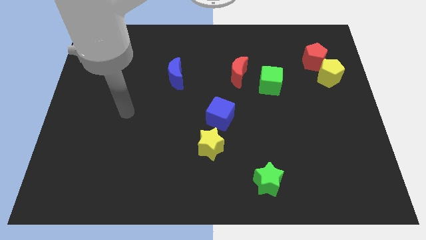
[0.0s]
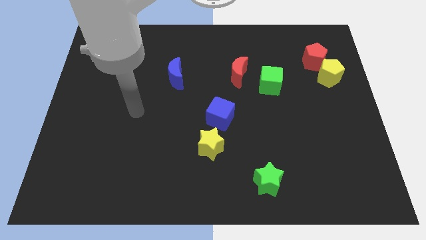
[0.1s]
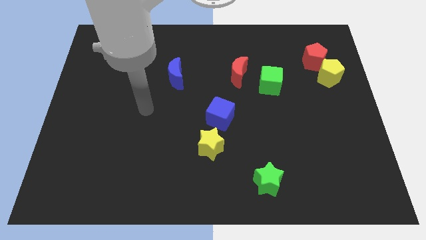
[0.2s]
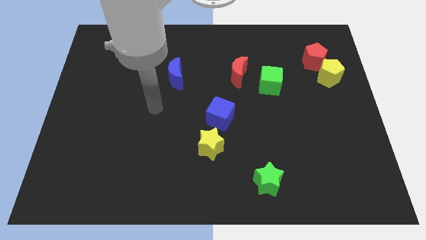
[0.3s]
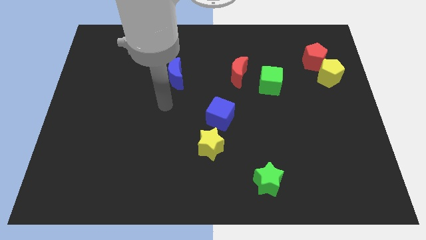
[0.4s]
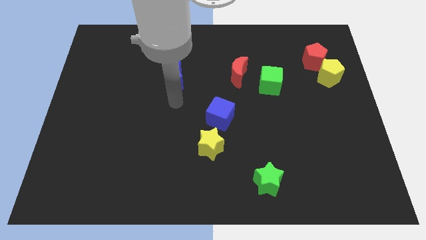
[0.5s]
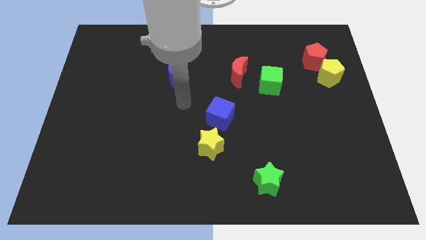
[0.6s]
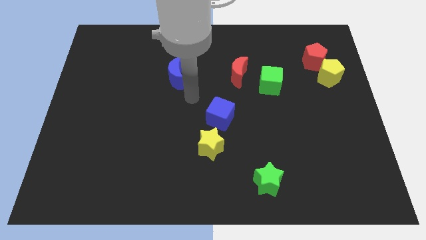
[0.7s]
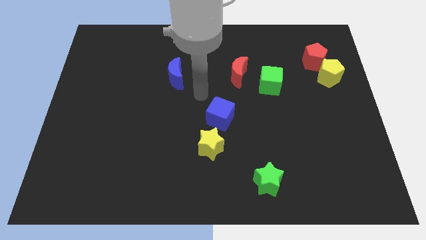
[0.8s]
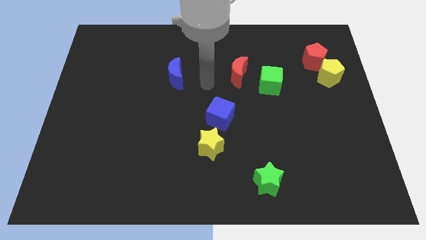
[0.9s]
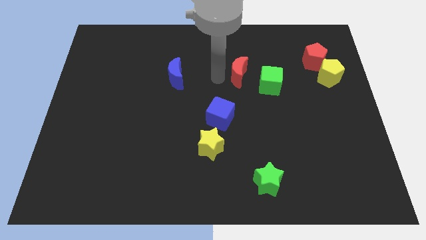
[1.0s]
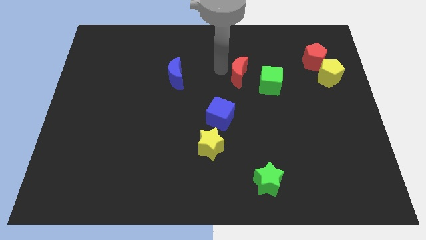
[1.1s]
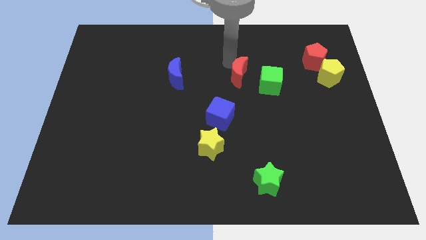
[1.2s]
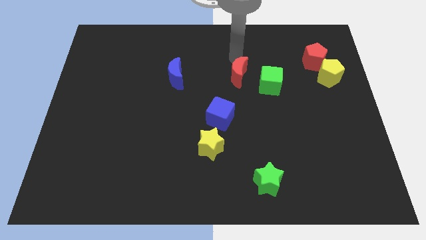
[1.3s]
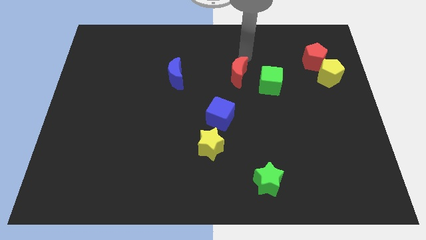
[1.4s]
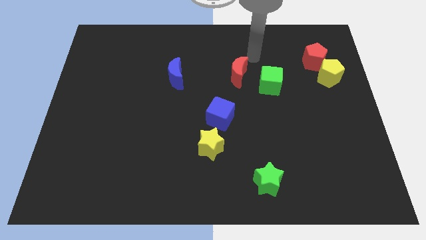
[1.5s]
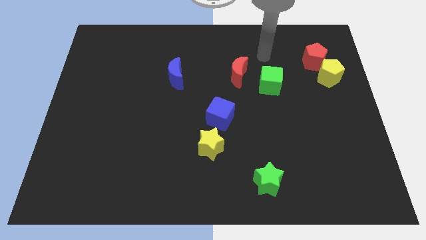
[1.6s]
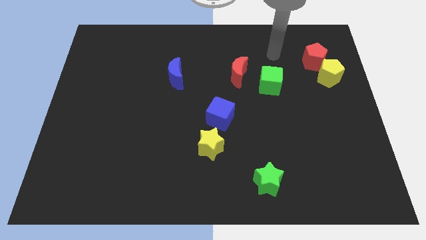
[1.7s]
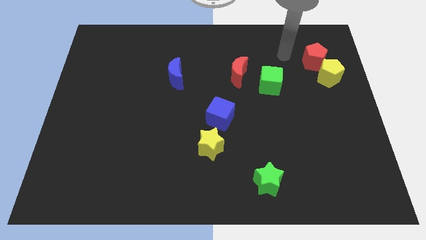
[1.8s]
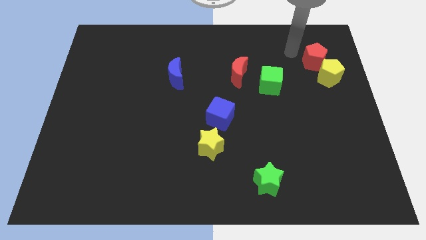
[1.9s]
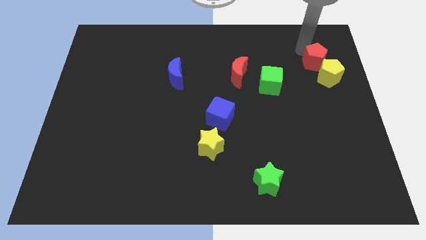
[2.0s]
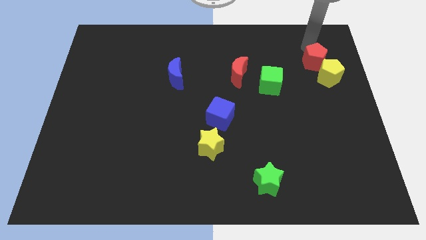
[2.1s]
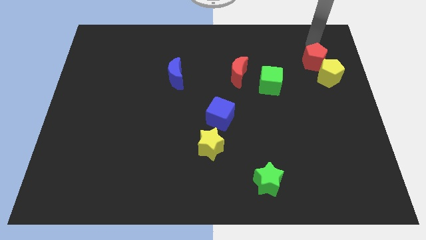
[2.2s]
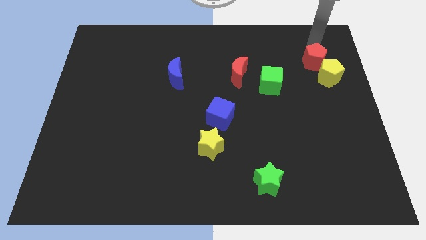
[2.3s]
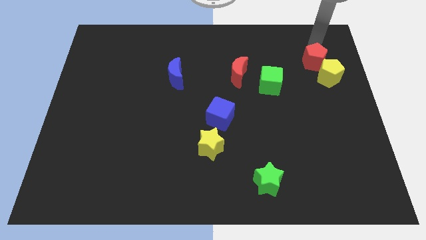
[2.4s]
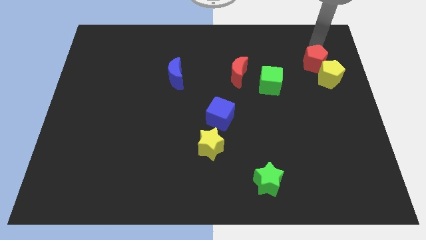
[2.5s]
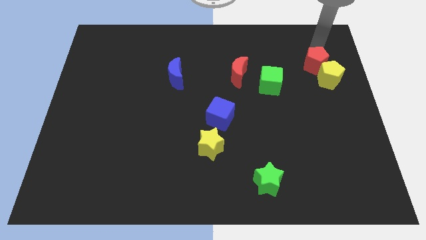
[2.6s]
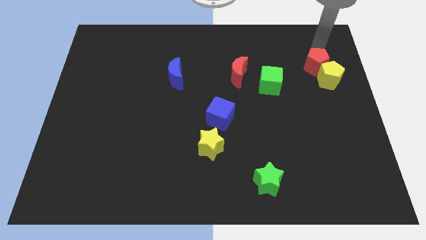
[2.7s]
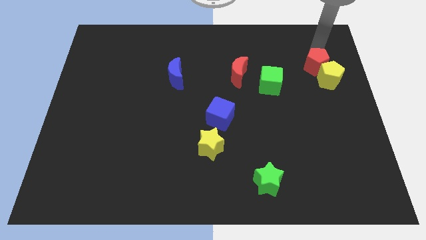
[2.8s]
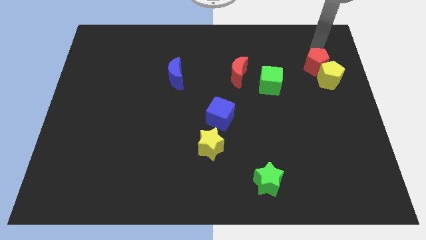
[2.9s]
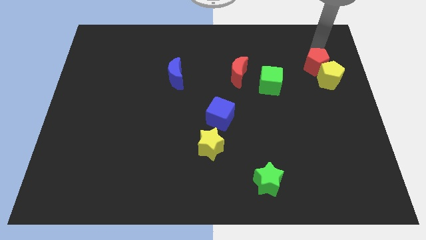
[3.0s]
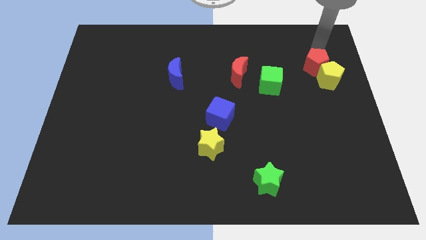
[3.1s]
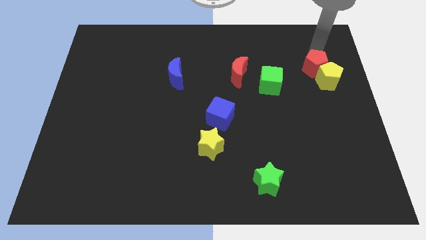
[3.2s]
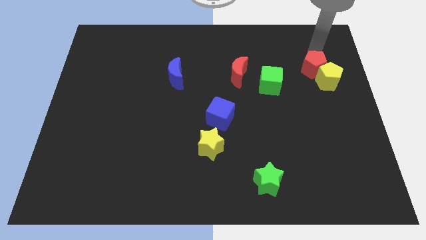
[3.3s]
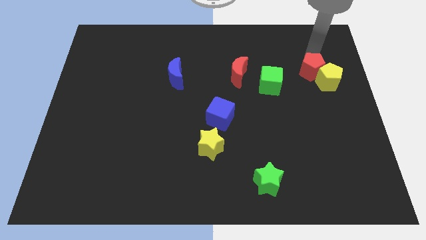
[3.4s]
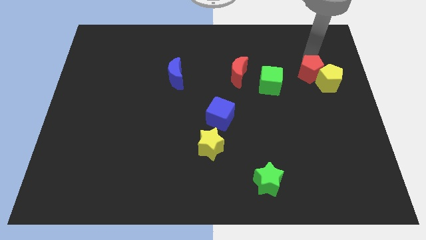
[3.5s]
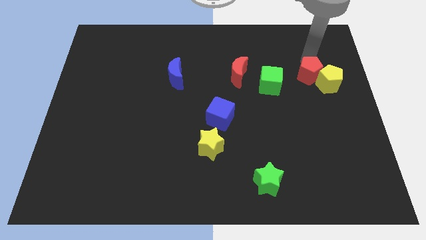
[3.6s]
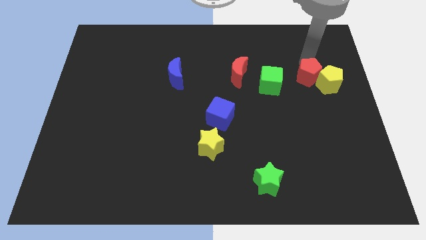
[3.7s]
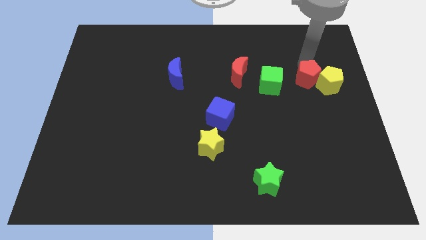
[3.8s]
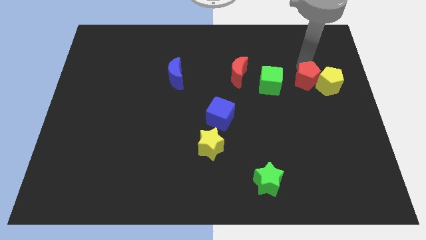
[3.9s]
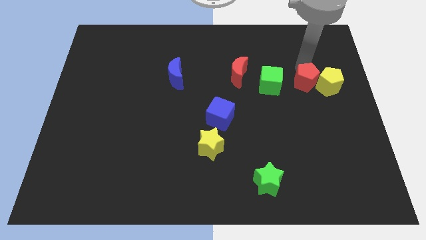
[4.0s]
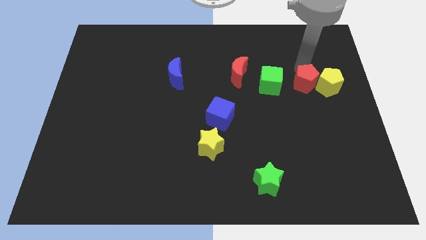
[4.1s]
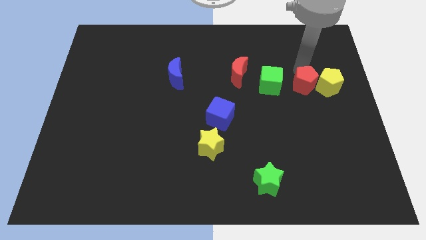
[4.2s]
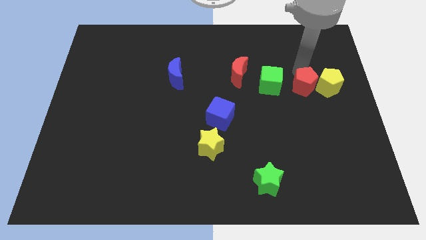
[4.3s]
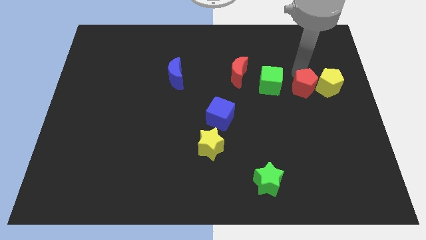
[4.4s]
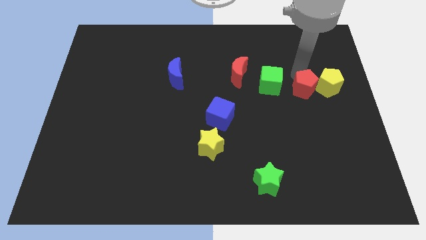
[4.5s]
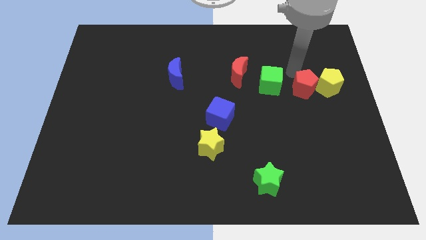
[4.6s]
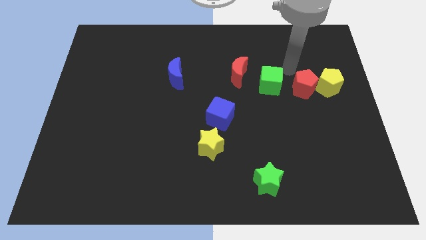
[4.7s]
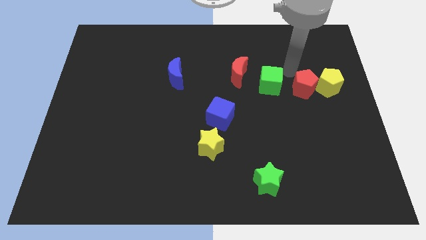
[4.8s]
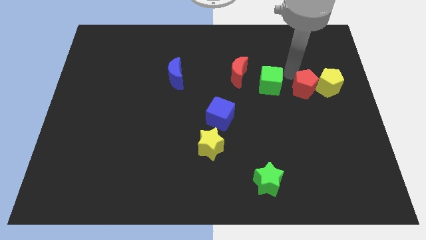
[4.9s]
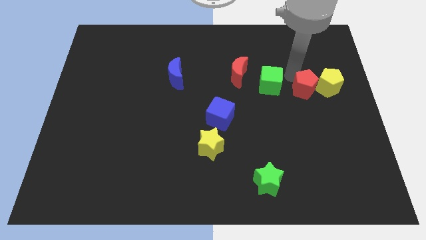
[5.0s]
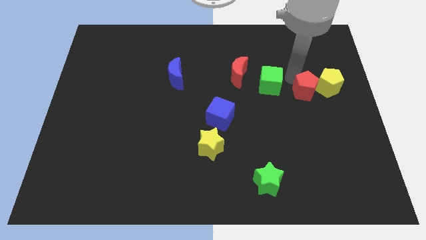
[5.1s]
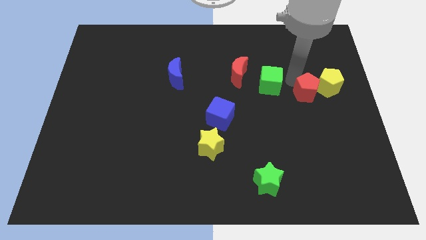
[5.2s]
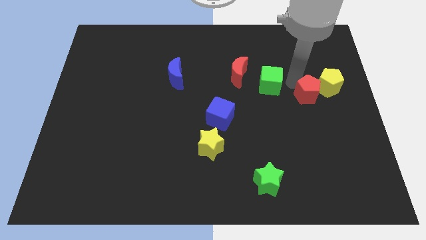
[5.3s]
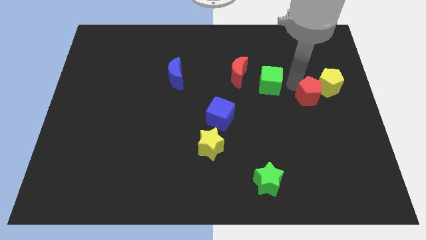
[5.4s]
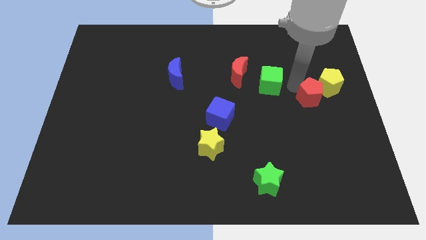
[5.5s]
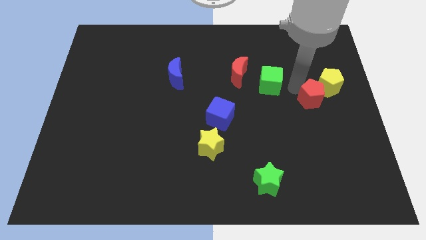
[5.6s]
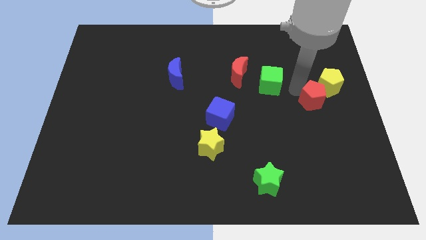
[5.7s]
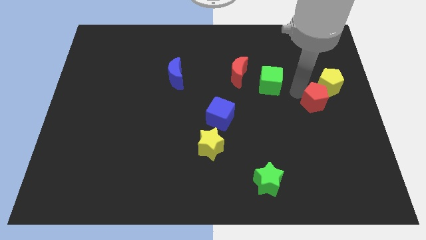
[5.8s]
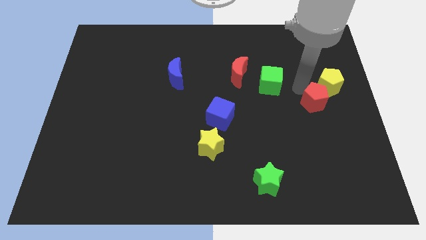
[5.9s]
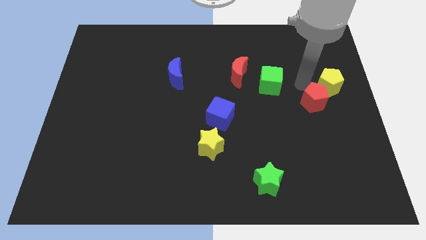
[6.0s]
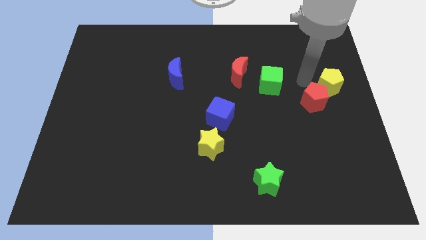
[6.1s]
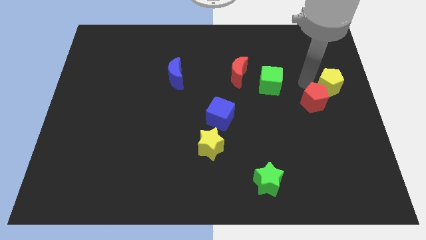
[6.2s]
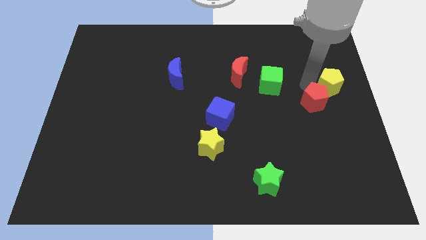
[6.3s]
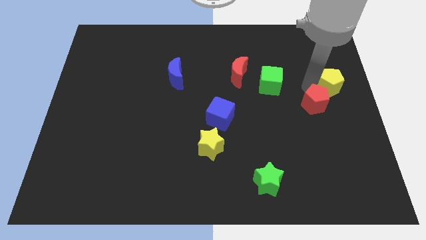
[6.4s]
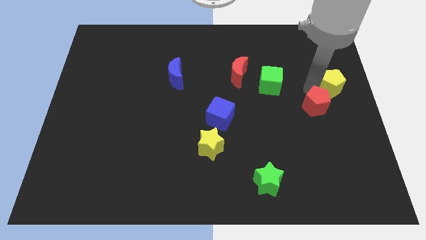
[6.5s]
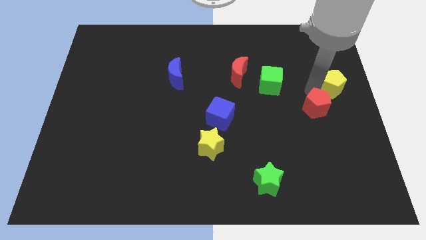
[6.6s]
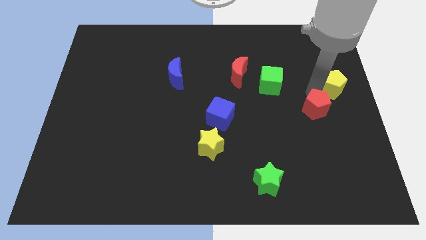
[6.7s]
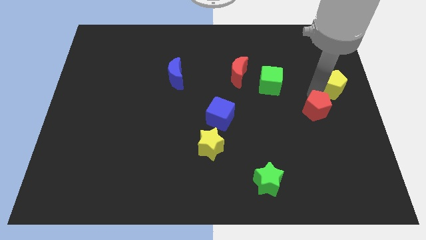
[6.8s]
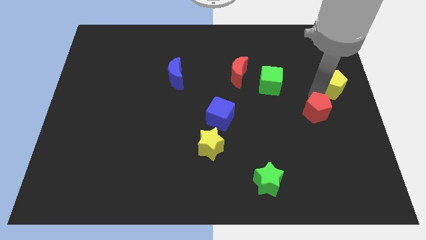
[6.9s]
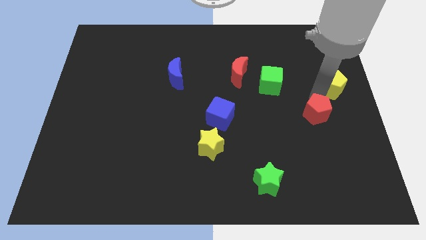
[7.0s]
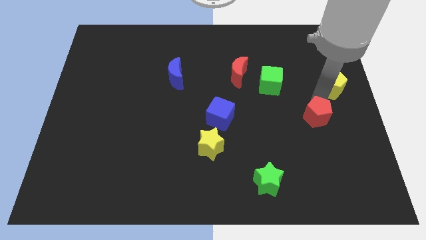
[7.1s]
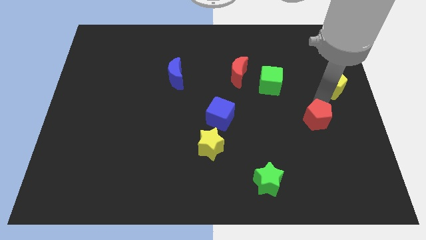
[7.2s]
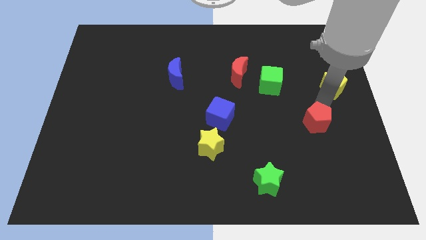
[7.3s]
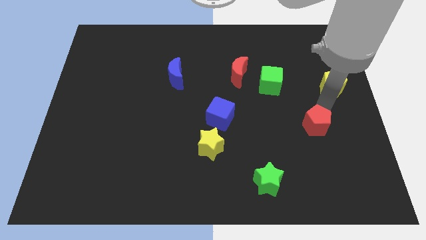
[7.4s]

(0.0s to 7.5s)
move the red pentagon down

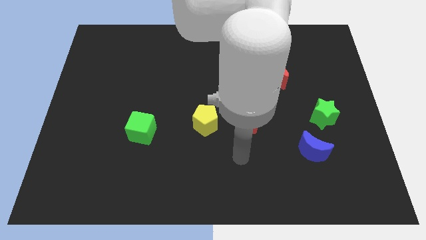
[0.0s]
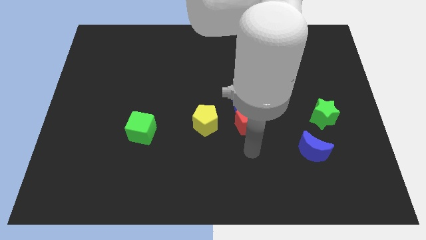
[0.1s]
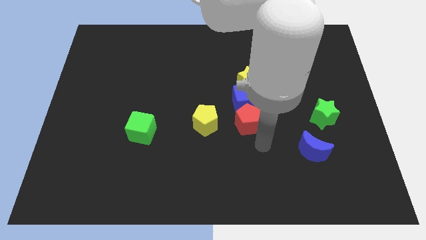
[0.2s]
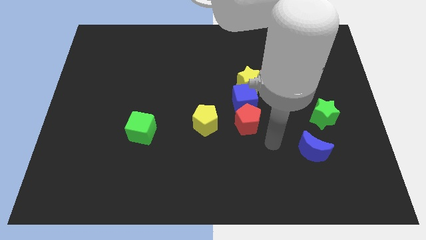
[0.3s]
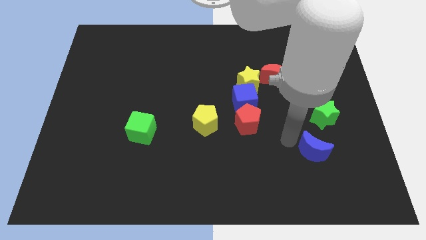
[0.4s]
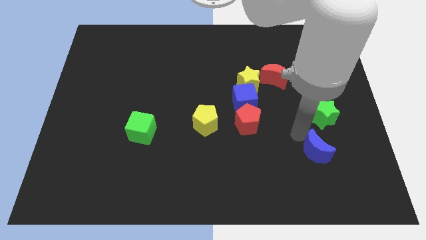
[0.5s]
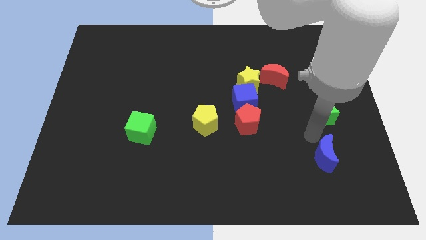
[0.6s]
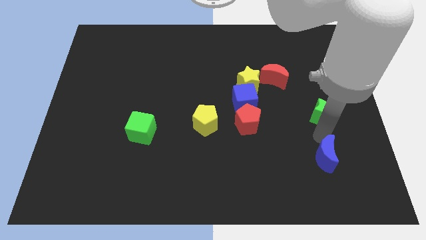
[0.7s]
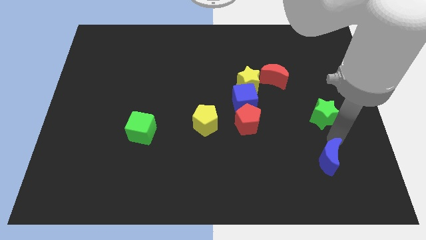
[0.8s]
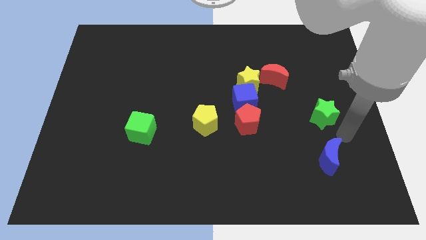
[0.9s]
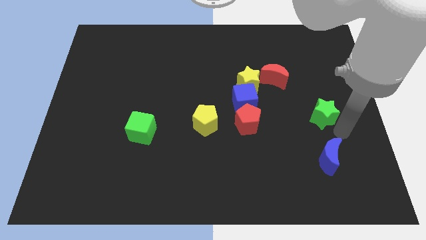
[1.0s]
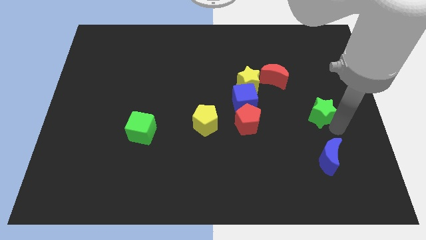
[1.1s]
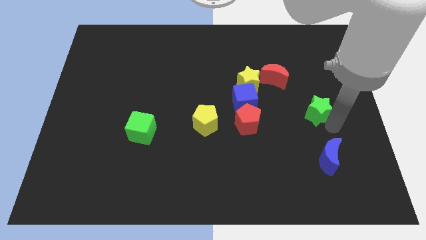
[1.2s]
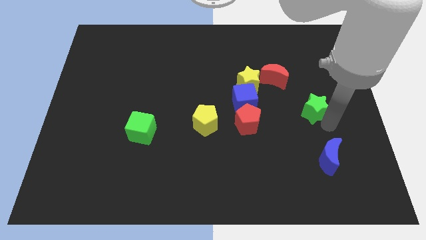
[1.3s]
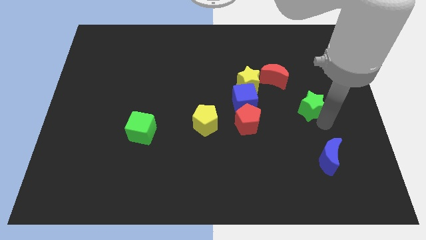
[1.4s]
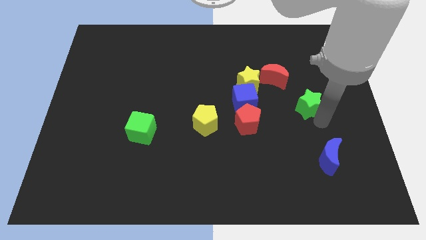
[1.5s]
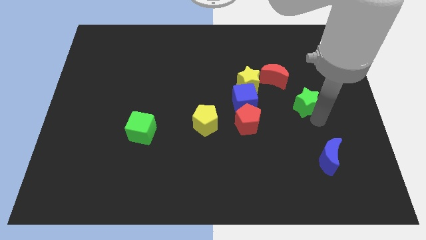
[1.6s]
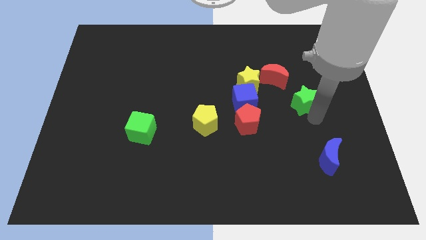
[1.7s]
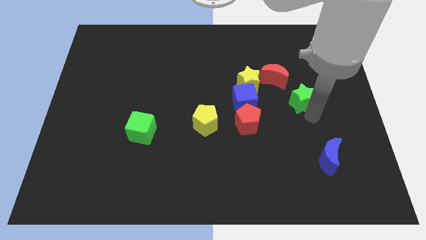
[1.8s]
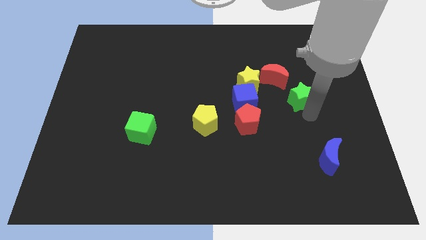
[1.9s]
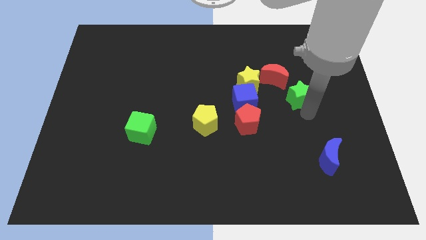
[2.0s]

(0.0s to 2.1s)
push the green star up and left a little bit
